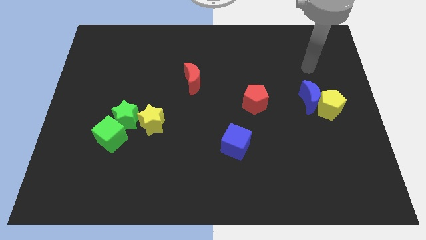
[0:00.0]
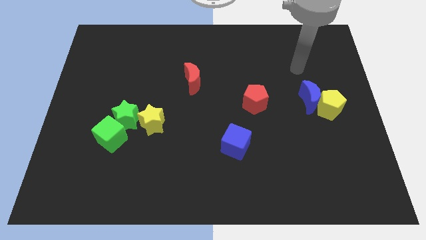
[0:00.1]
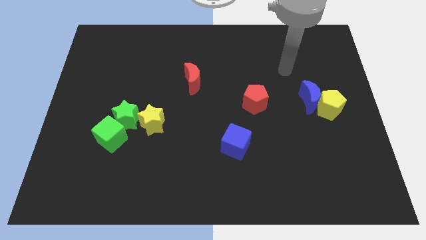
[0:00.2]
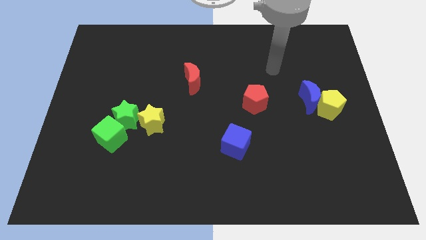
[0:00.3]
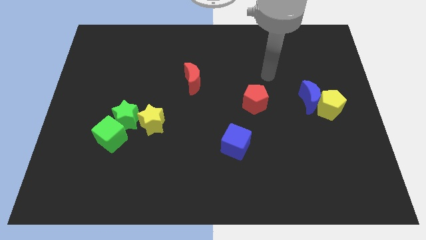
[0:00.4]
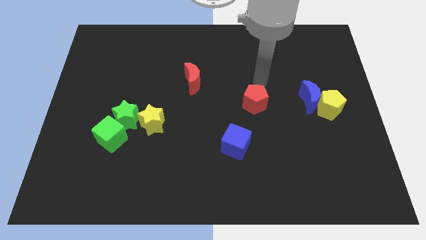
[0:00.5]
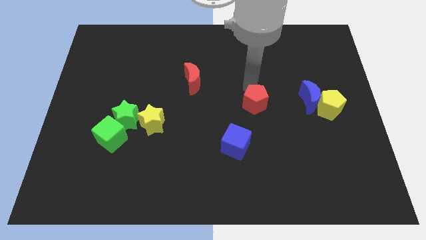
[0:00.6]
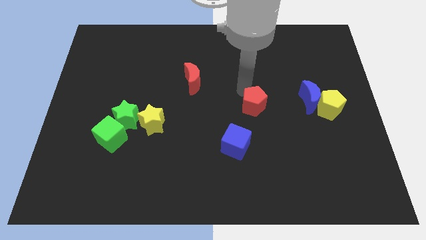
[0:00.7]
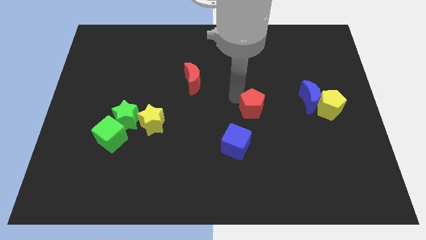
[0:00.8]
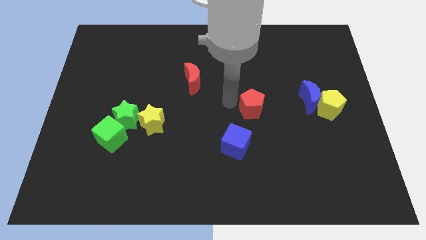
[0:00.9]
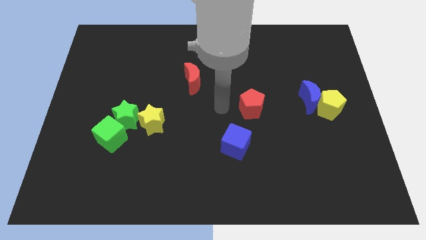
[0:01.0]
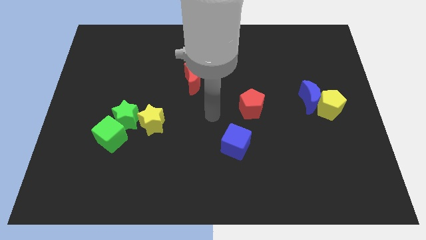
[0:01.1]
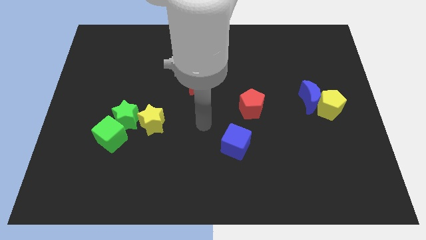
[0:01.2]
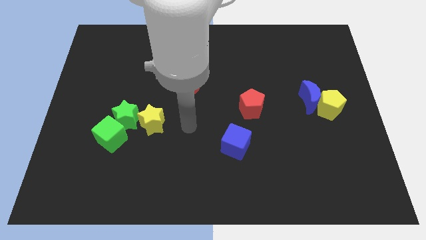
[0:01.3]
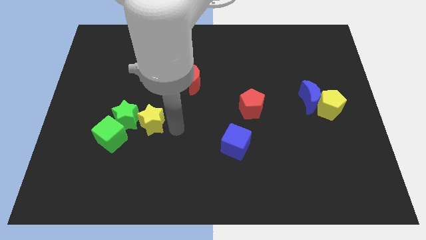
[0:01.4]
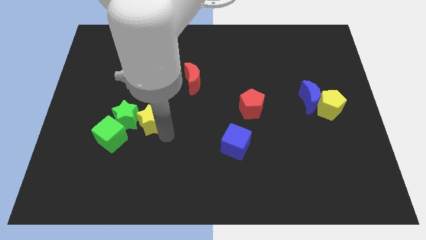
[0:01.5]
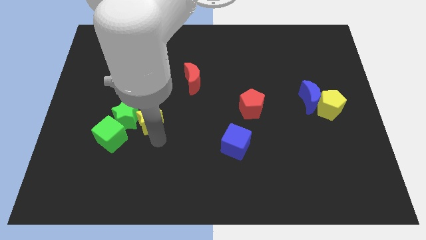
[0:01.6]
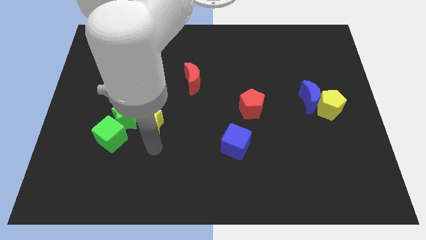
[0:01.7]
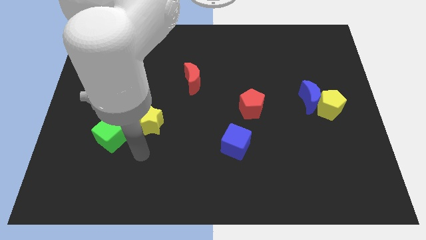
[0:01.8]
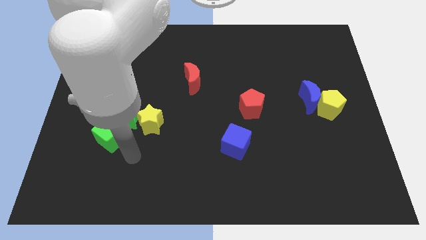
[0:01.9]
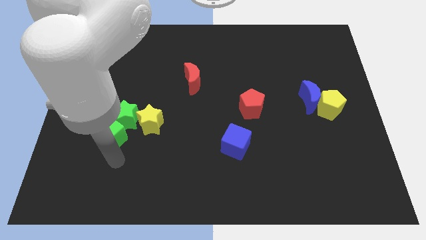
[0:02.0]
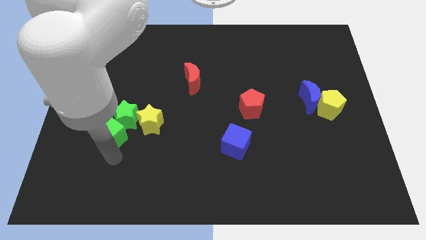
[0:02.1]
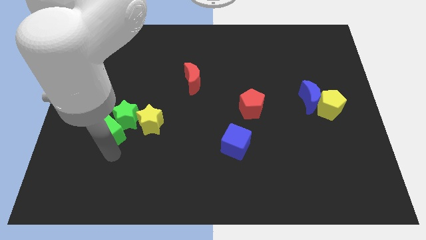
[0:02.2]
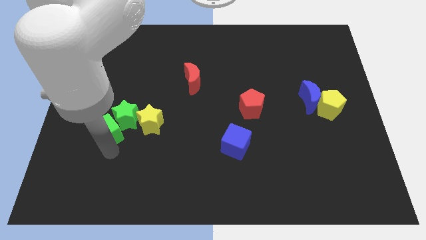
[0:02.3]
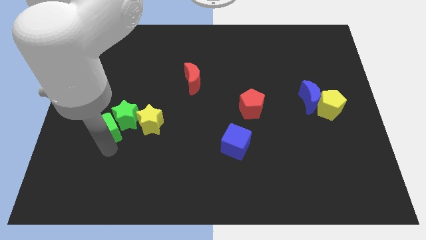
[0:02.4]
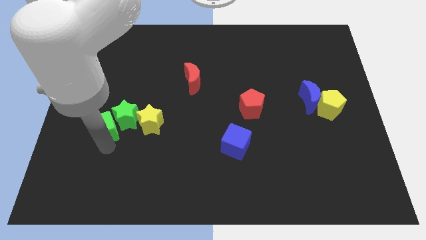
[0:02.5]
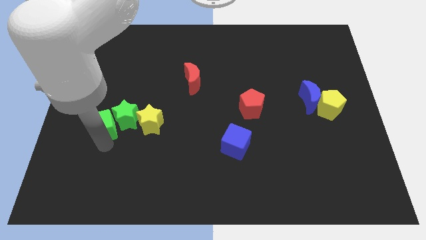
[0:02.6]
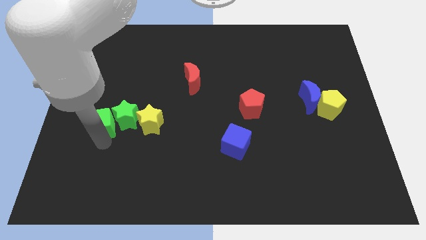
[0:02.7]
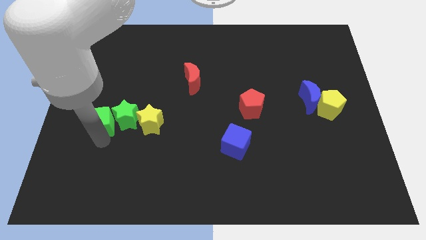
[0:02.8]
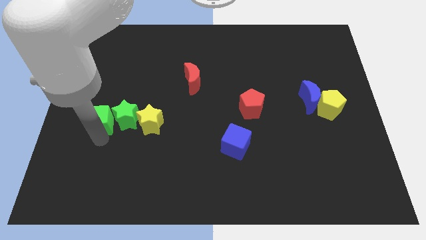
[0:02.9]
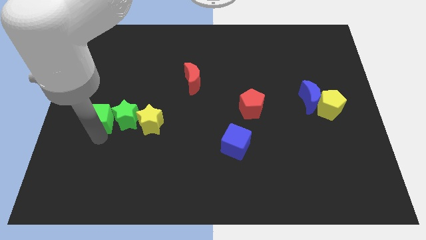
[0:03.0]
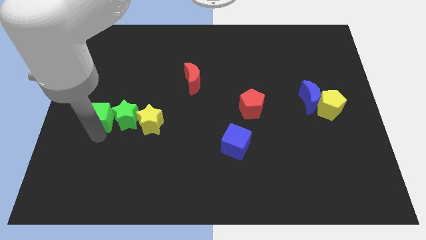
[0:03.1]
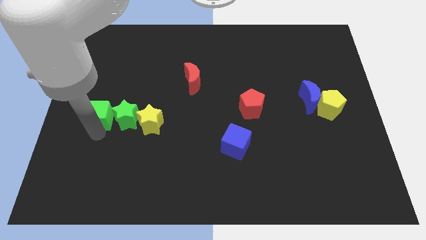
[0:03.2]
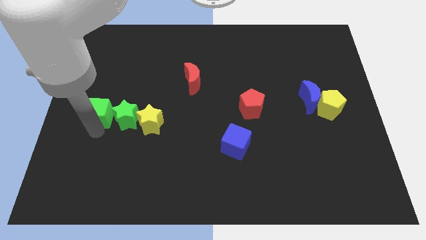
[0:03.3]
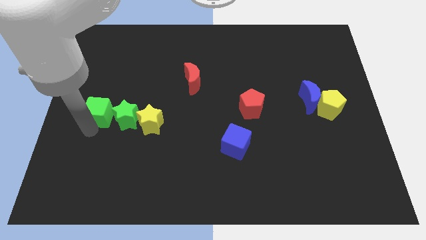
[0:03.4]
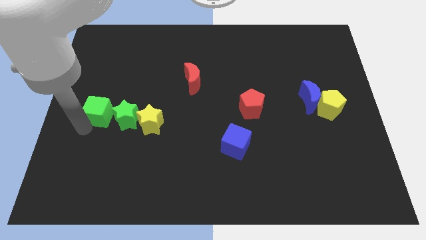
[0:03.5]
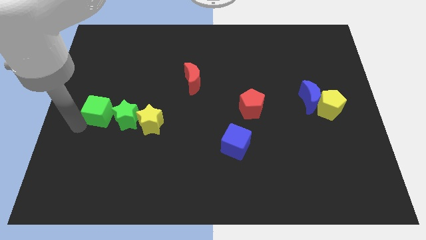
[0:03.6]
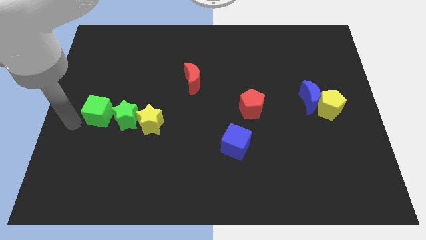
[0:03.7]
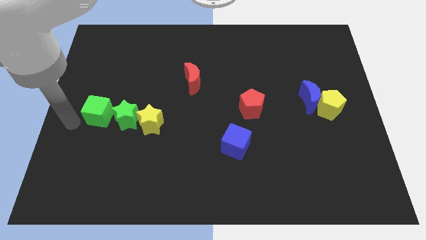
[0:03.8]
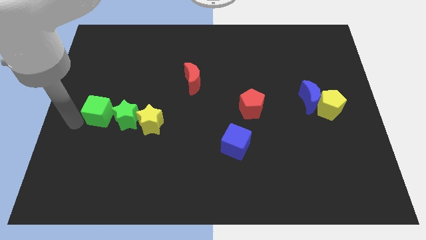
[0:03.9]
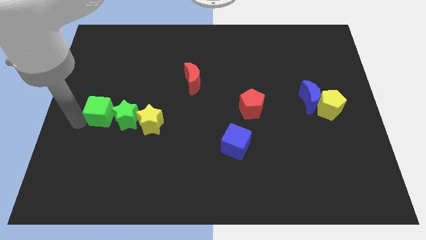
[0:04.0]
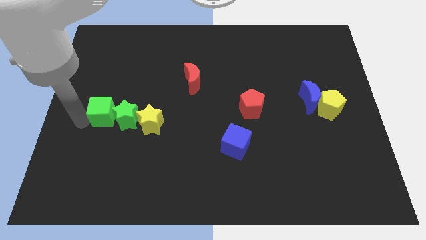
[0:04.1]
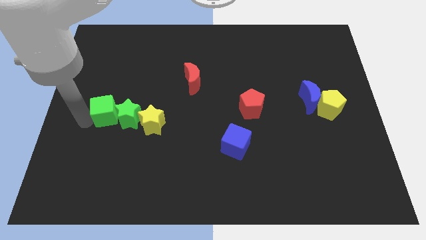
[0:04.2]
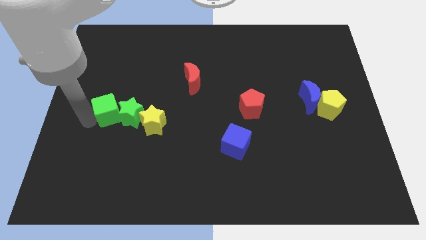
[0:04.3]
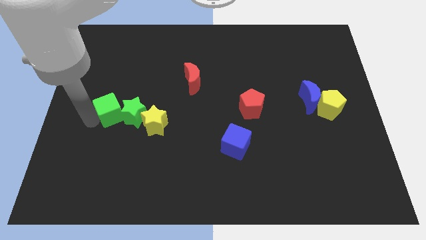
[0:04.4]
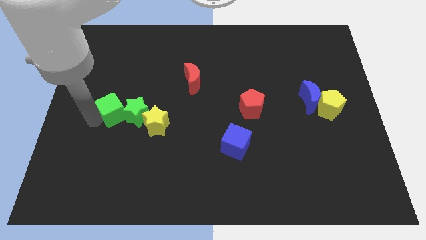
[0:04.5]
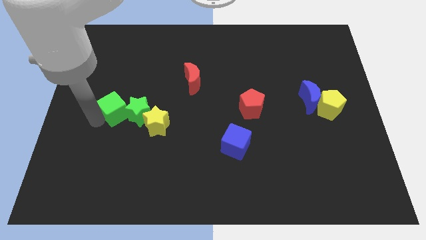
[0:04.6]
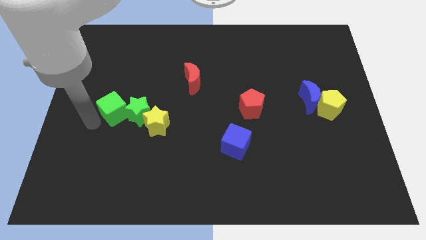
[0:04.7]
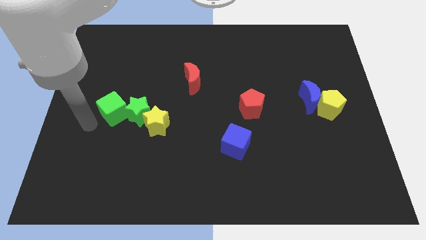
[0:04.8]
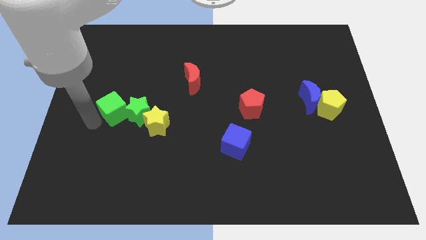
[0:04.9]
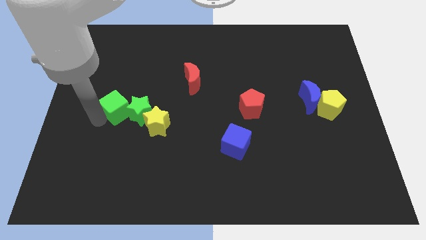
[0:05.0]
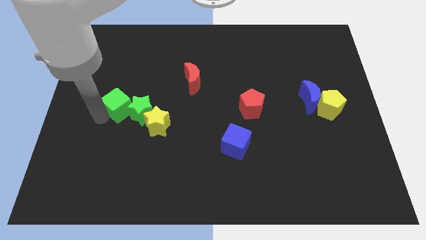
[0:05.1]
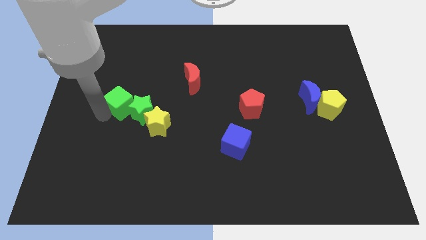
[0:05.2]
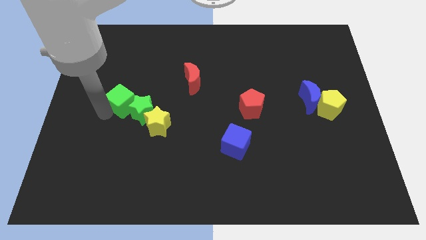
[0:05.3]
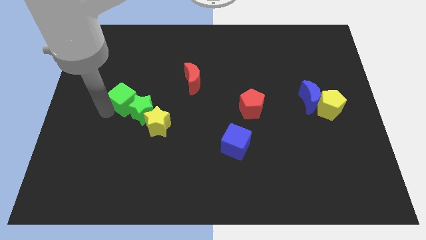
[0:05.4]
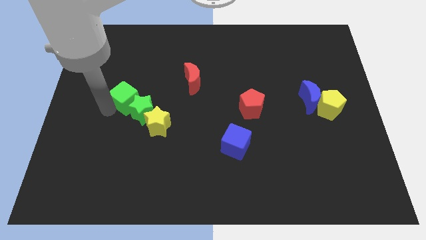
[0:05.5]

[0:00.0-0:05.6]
move the green cube upwards and then right a bit

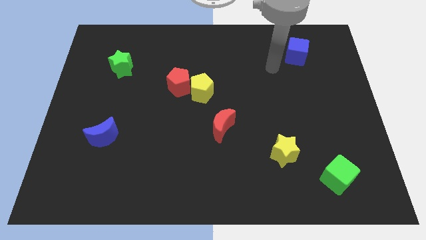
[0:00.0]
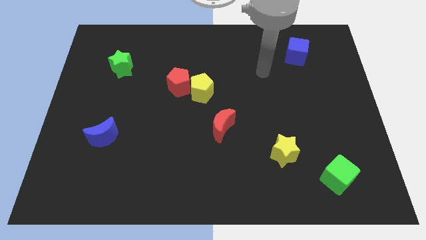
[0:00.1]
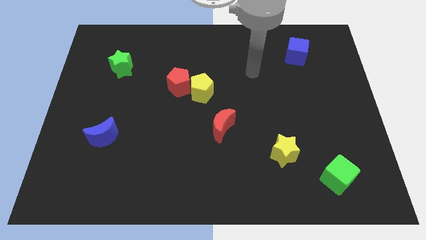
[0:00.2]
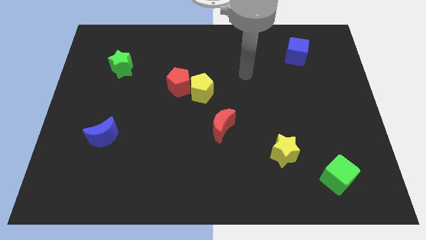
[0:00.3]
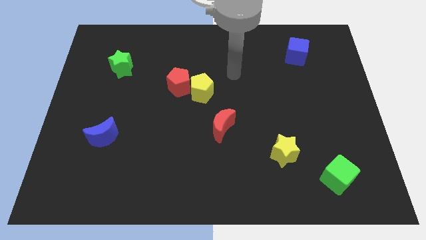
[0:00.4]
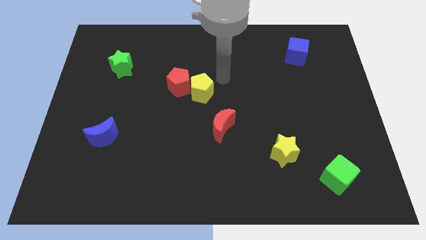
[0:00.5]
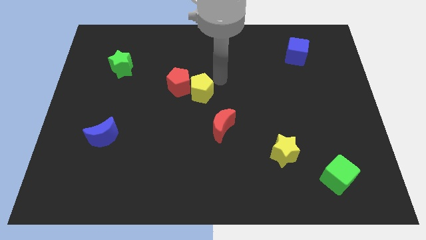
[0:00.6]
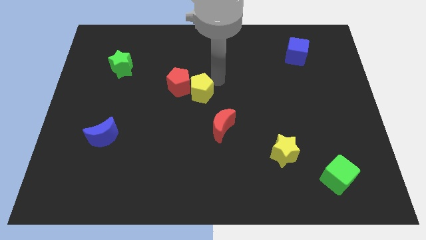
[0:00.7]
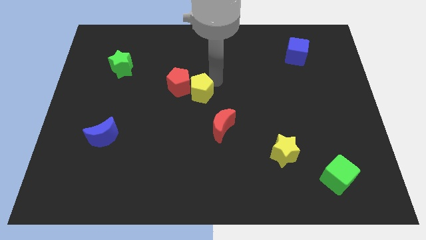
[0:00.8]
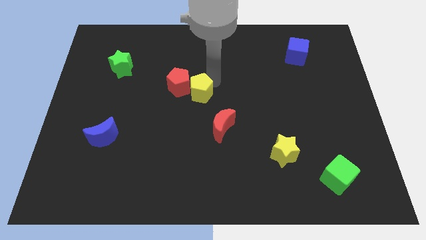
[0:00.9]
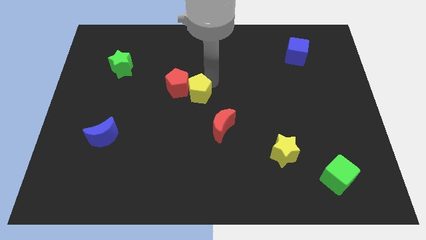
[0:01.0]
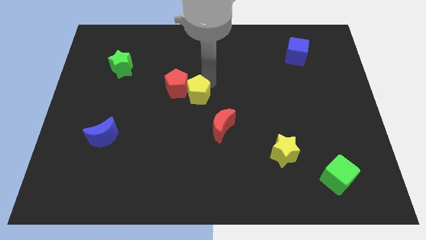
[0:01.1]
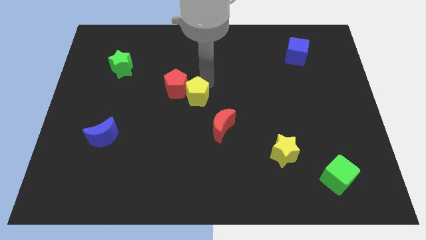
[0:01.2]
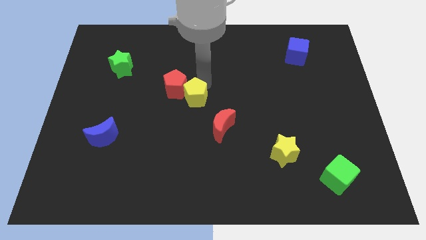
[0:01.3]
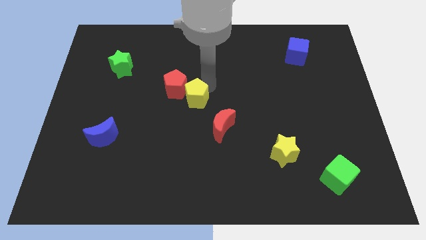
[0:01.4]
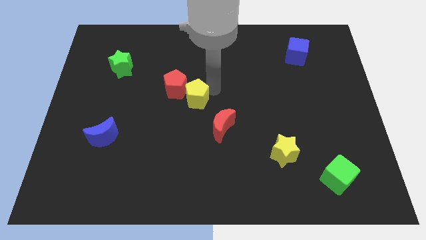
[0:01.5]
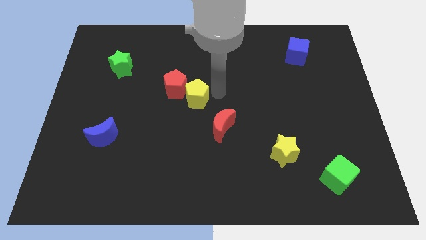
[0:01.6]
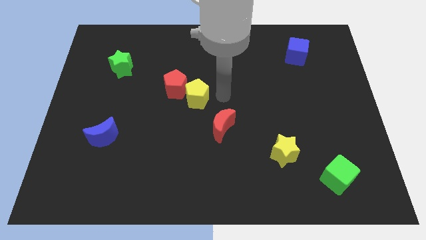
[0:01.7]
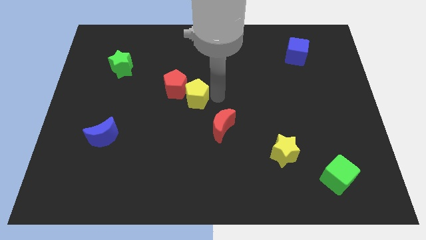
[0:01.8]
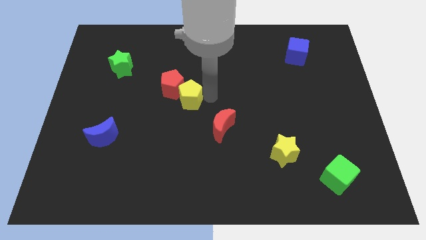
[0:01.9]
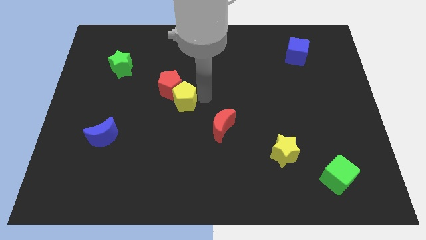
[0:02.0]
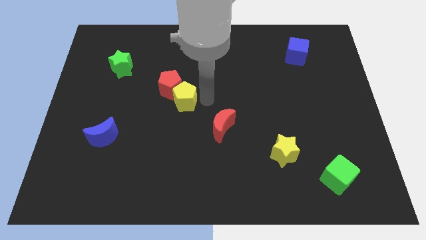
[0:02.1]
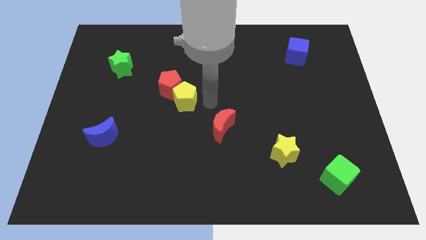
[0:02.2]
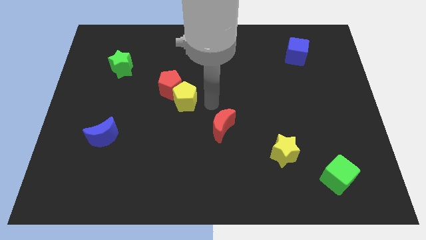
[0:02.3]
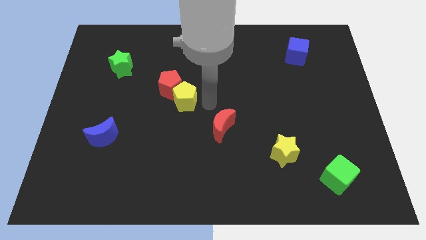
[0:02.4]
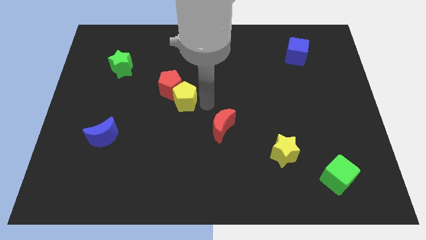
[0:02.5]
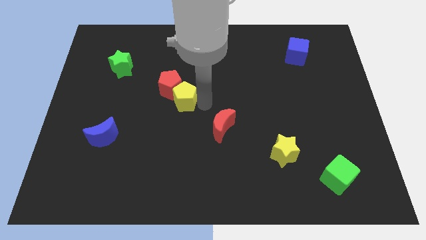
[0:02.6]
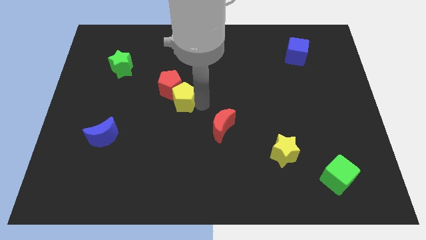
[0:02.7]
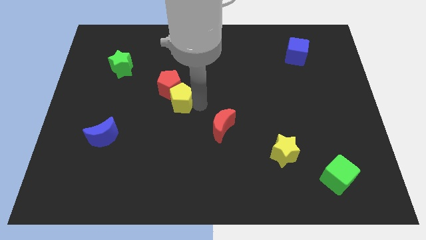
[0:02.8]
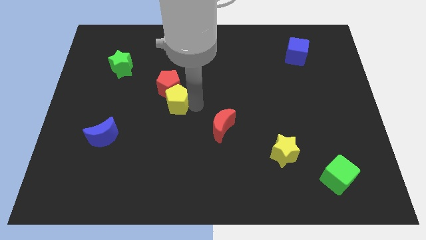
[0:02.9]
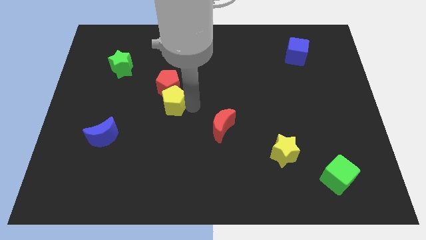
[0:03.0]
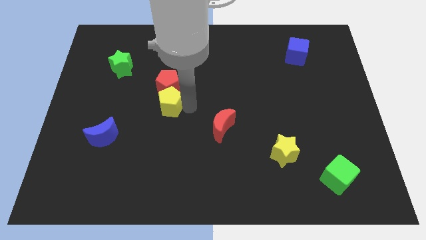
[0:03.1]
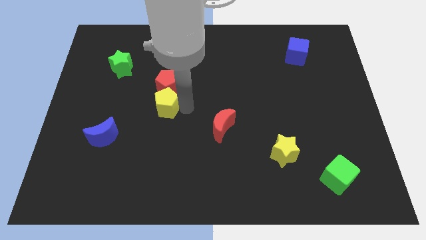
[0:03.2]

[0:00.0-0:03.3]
slide the yellow pentagon a bit to the left
